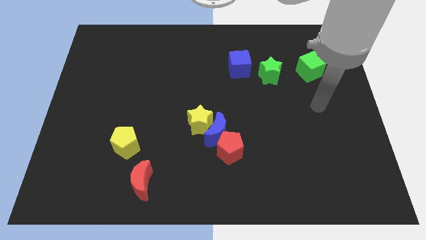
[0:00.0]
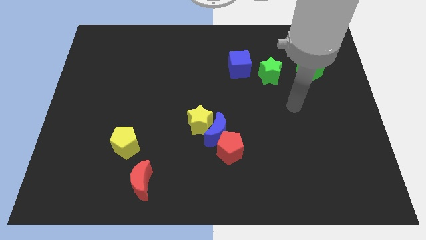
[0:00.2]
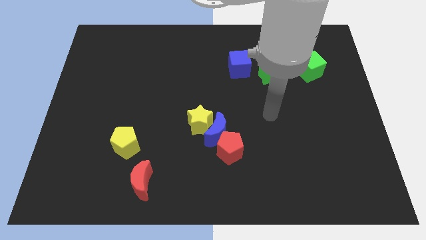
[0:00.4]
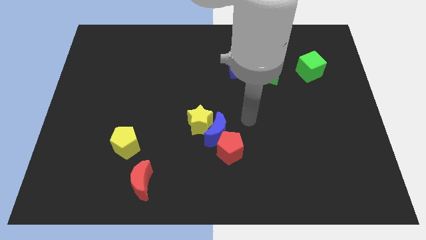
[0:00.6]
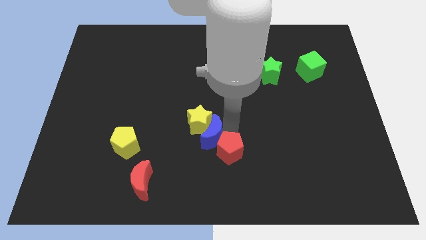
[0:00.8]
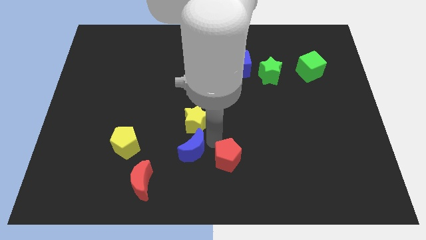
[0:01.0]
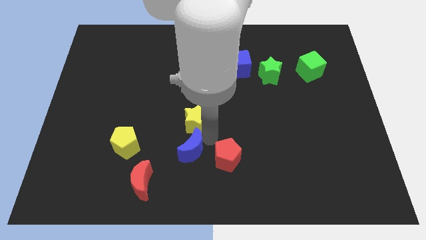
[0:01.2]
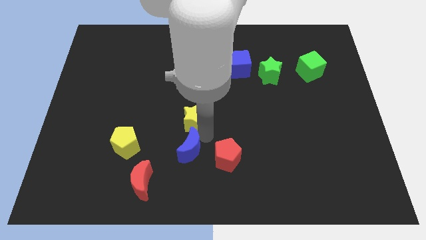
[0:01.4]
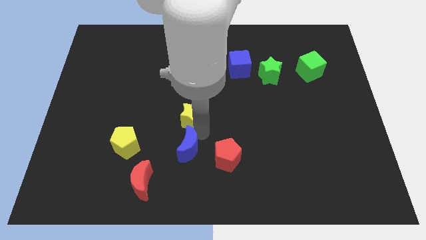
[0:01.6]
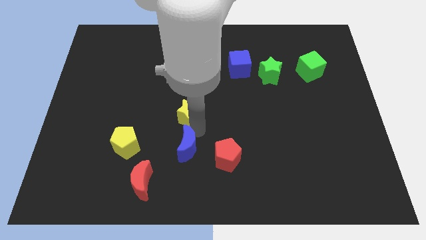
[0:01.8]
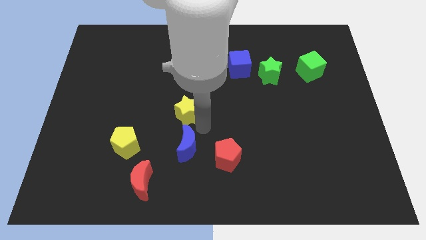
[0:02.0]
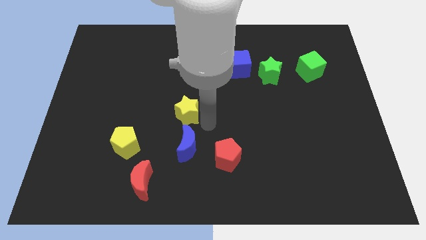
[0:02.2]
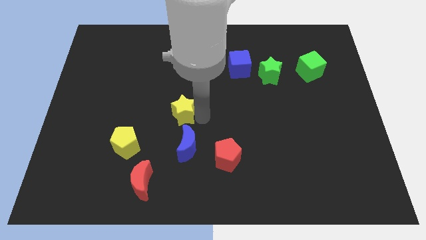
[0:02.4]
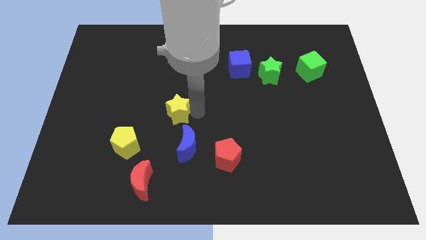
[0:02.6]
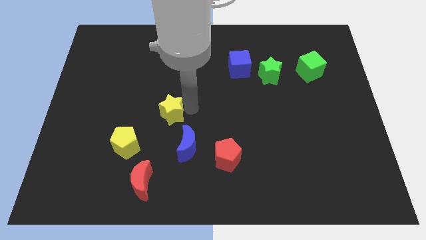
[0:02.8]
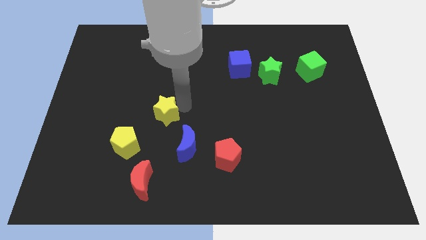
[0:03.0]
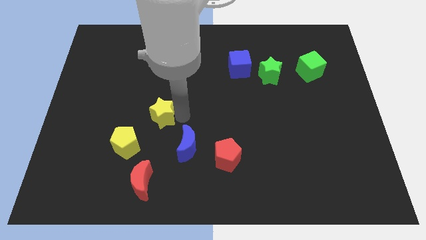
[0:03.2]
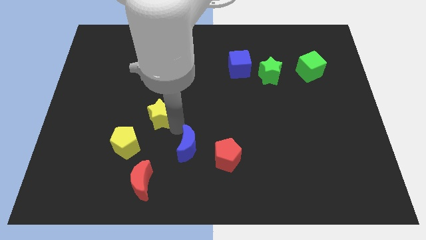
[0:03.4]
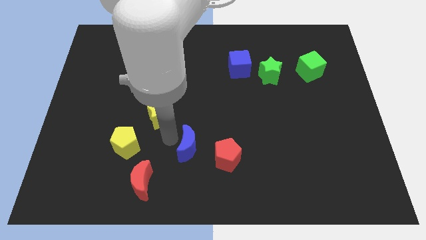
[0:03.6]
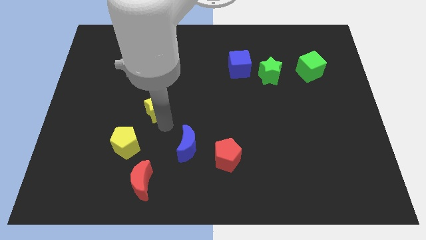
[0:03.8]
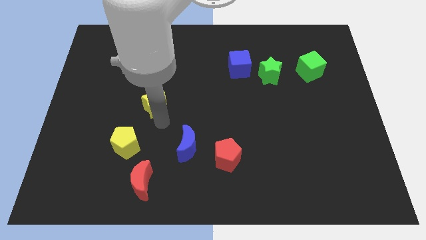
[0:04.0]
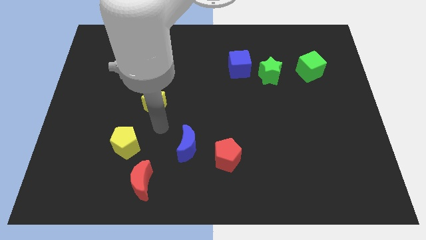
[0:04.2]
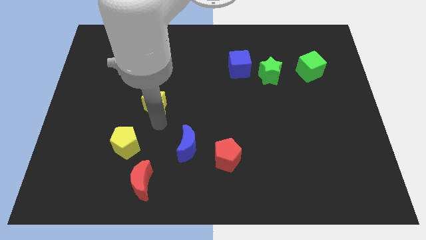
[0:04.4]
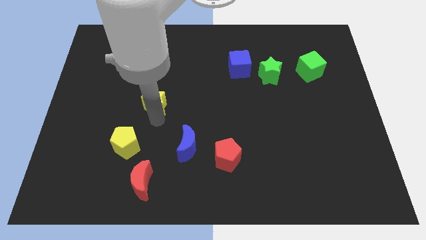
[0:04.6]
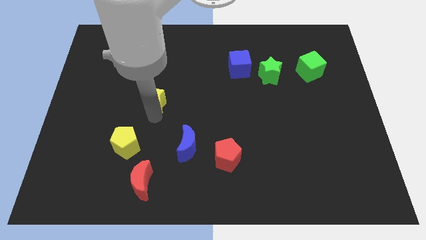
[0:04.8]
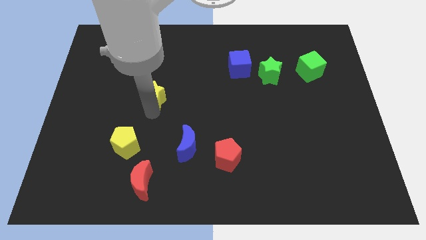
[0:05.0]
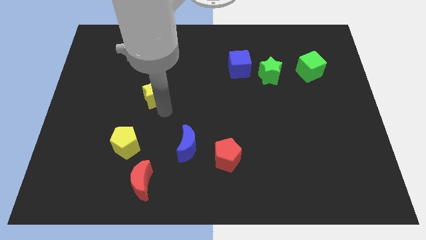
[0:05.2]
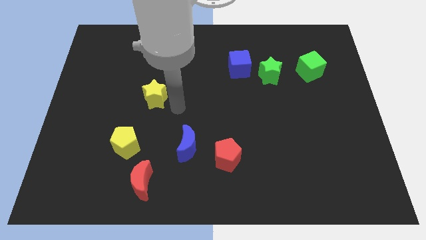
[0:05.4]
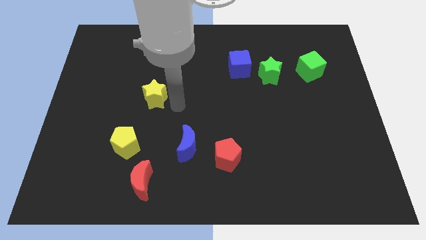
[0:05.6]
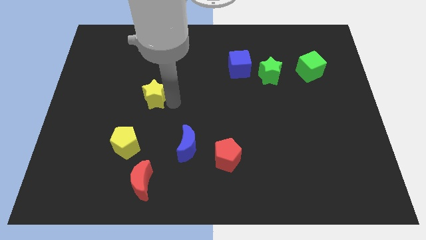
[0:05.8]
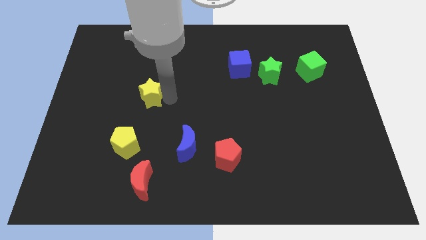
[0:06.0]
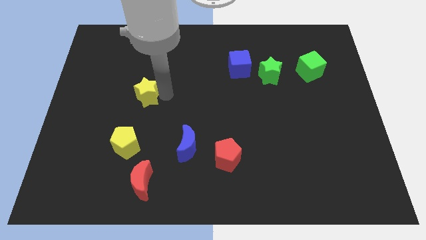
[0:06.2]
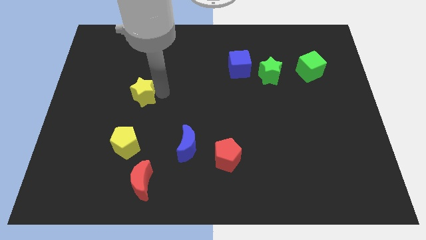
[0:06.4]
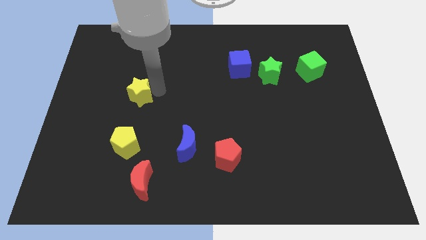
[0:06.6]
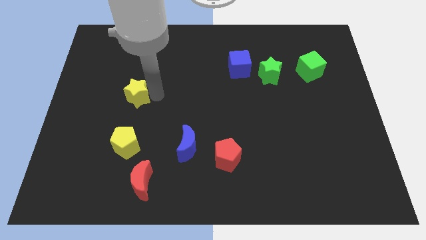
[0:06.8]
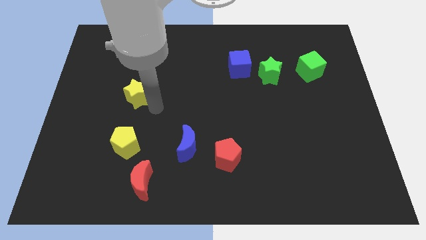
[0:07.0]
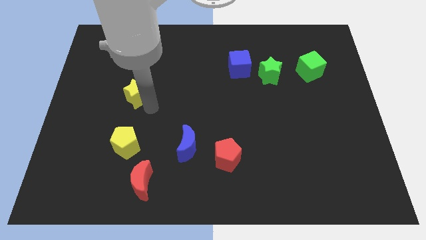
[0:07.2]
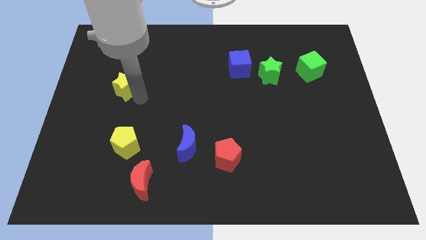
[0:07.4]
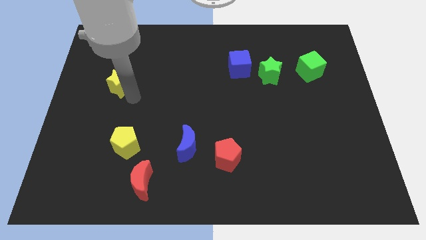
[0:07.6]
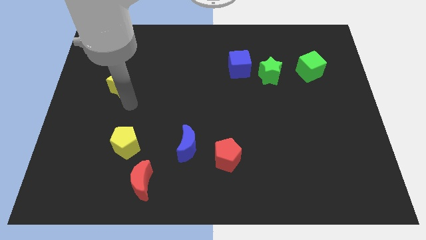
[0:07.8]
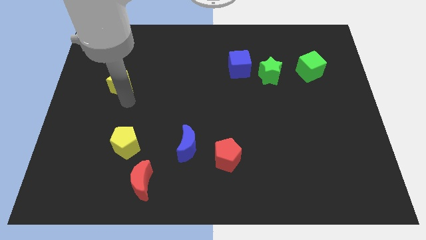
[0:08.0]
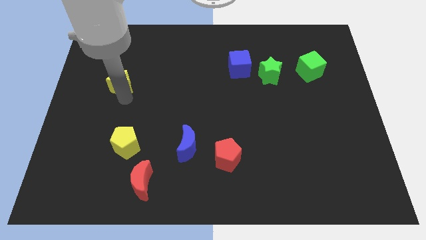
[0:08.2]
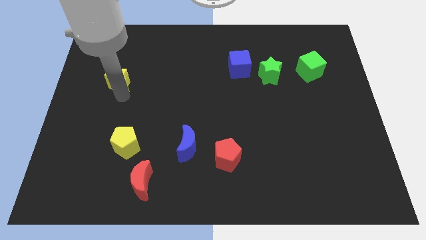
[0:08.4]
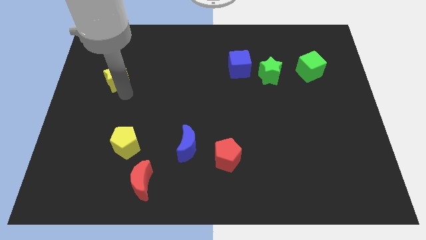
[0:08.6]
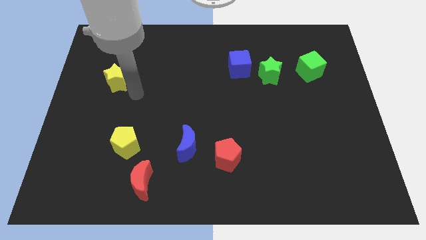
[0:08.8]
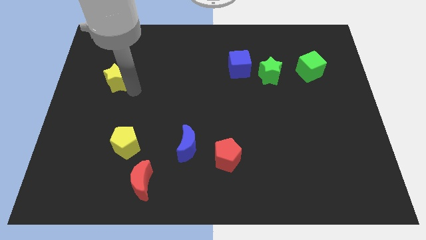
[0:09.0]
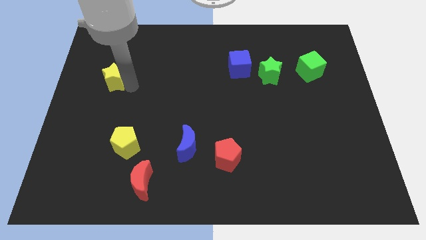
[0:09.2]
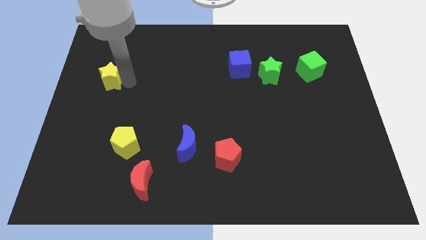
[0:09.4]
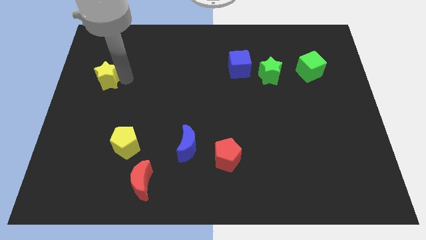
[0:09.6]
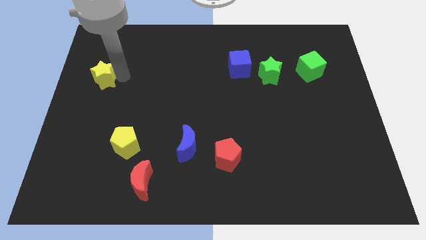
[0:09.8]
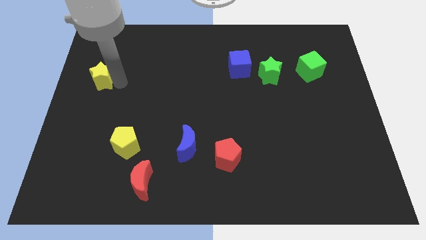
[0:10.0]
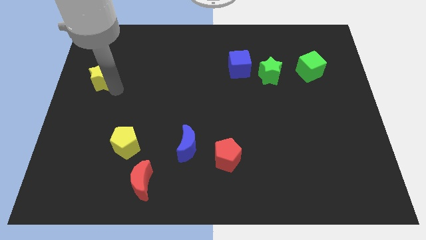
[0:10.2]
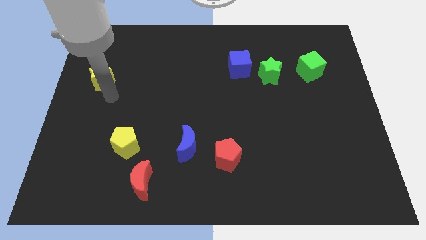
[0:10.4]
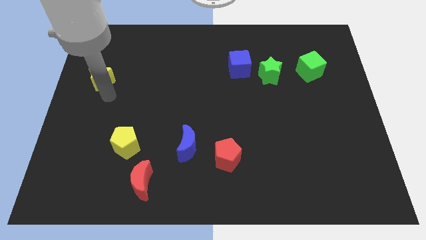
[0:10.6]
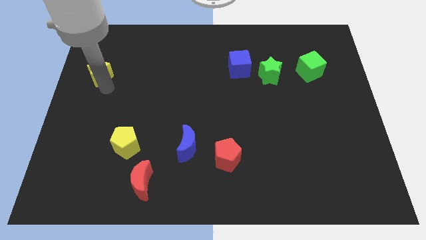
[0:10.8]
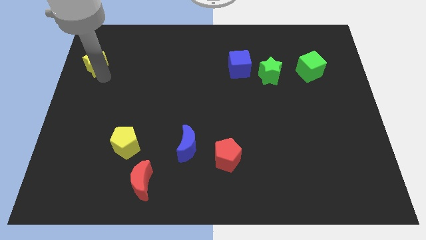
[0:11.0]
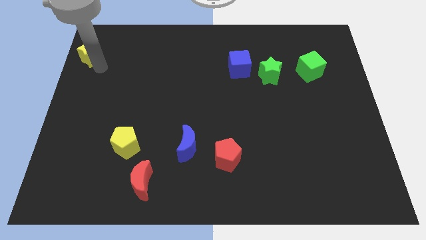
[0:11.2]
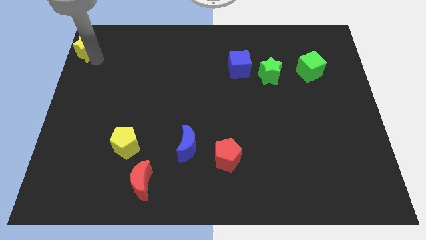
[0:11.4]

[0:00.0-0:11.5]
move the yellow star to the top left

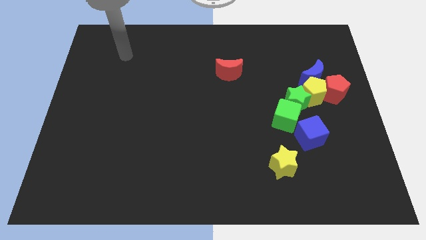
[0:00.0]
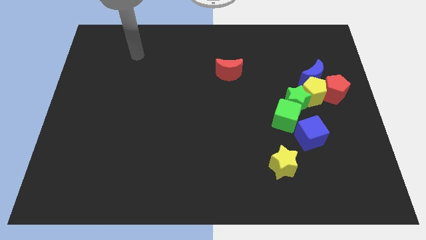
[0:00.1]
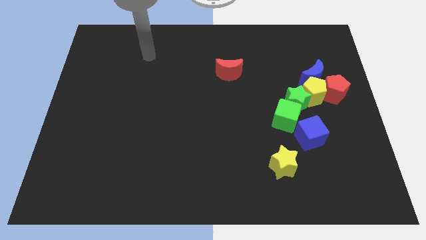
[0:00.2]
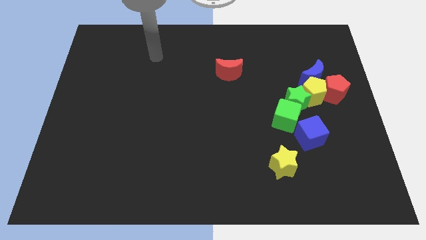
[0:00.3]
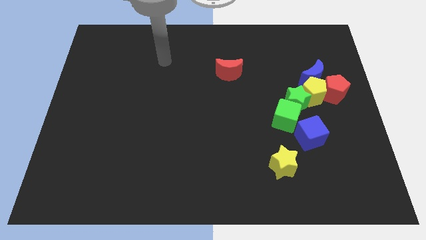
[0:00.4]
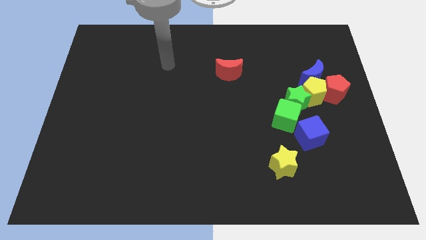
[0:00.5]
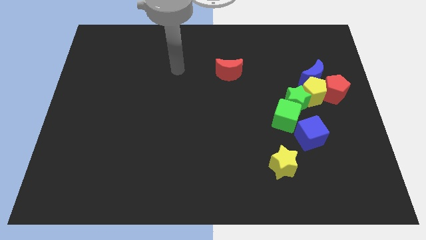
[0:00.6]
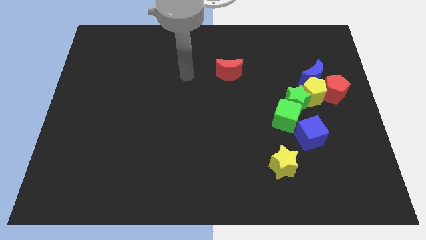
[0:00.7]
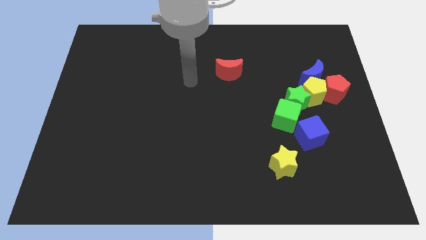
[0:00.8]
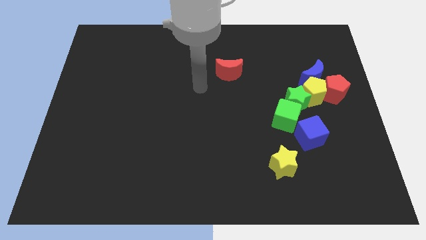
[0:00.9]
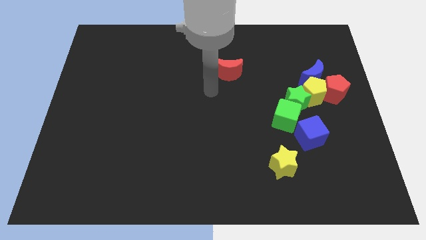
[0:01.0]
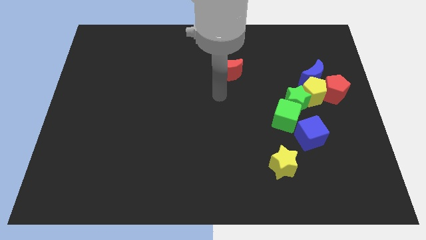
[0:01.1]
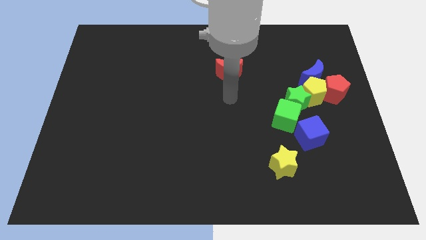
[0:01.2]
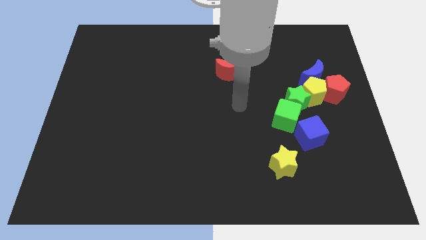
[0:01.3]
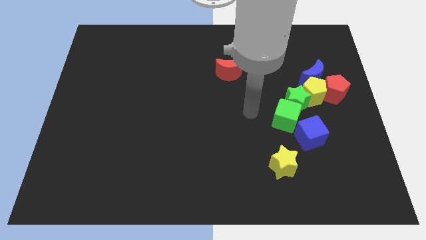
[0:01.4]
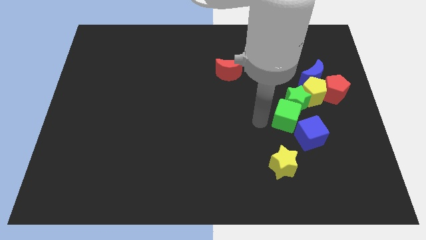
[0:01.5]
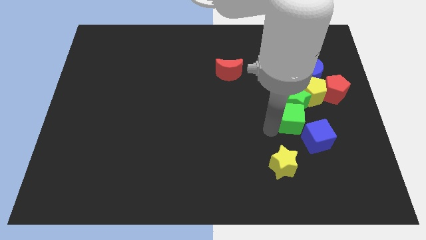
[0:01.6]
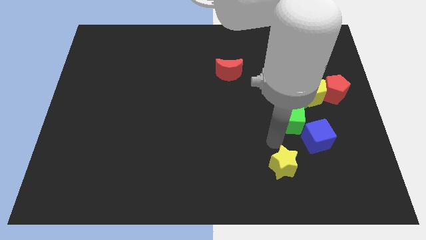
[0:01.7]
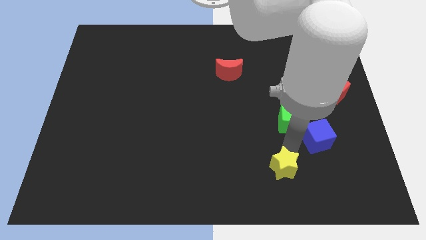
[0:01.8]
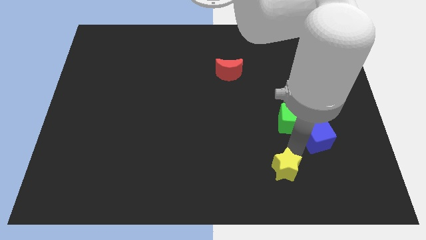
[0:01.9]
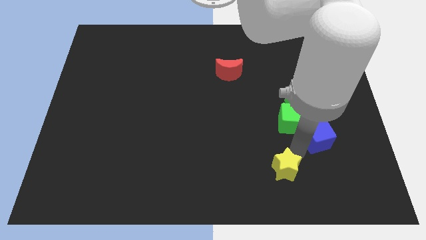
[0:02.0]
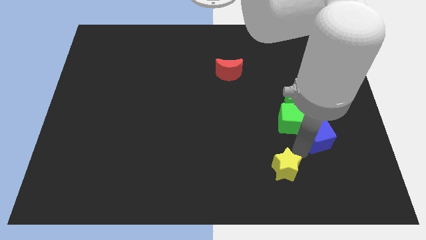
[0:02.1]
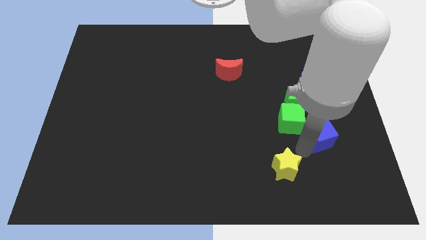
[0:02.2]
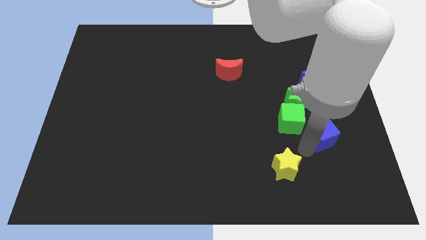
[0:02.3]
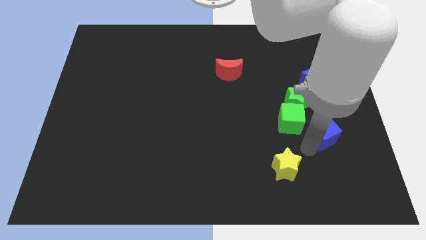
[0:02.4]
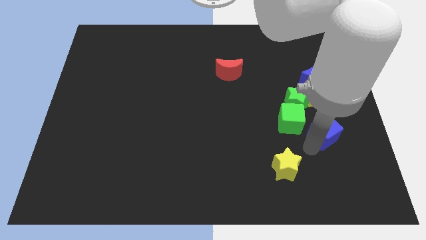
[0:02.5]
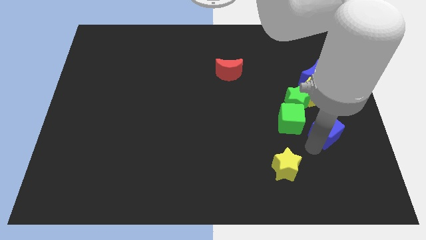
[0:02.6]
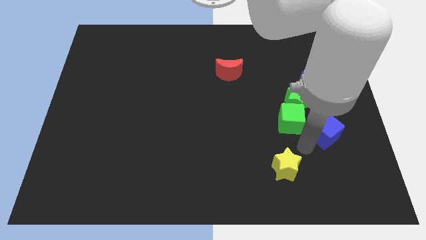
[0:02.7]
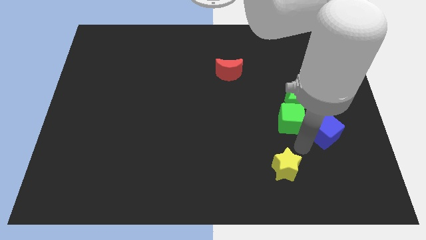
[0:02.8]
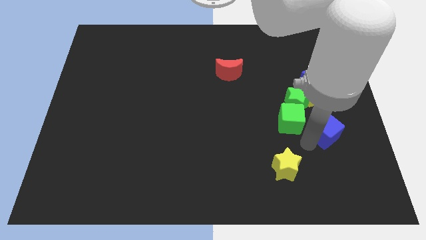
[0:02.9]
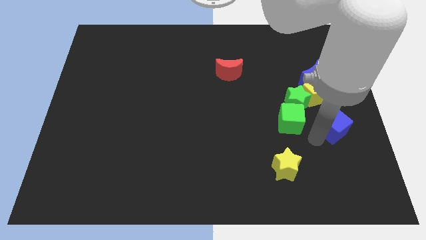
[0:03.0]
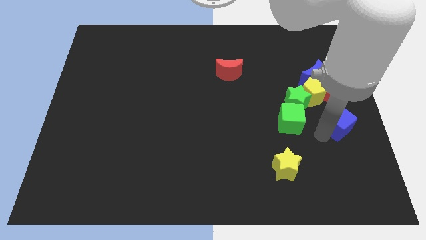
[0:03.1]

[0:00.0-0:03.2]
push the blue cube to the right side of the board
